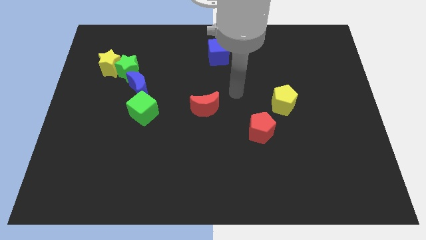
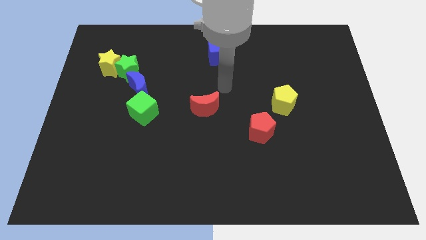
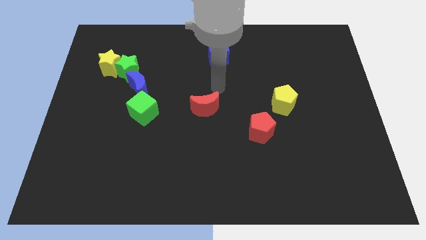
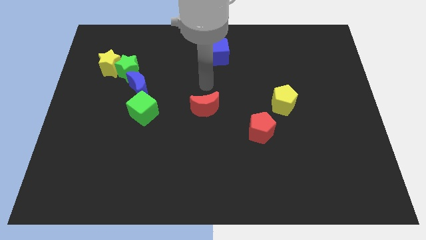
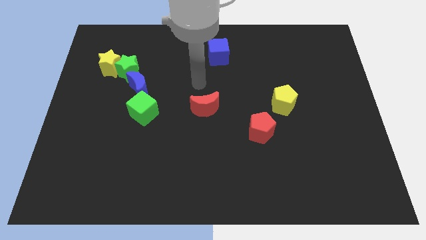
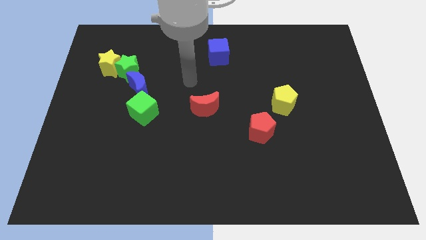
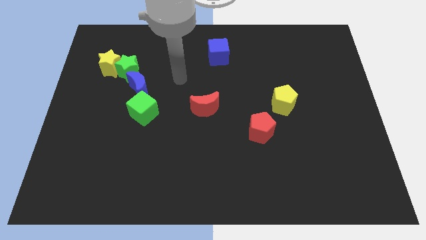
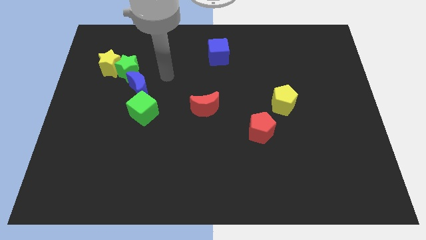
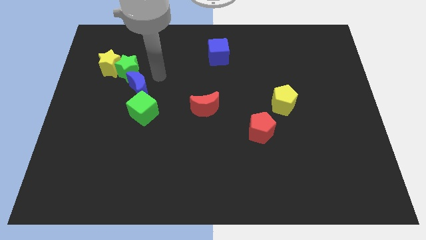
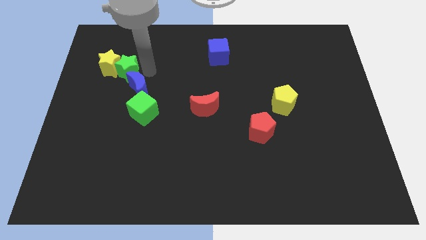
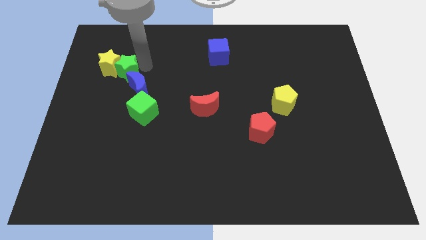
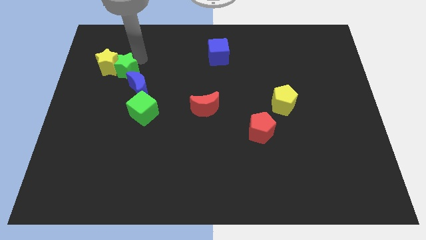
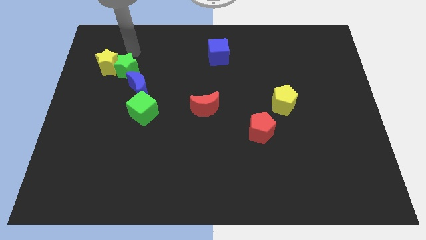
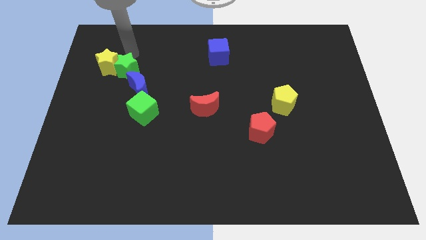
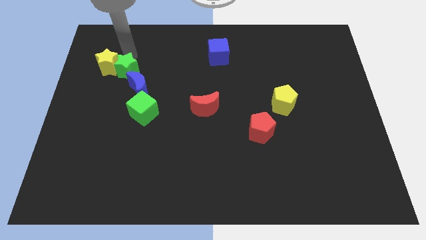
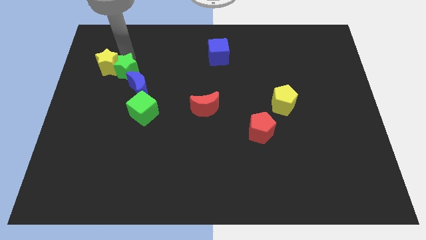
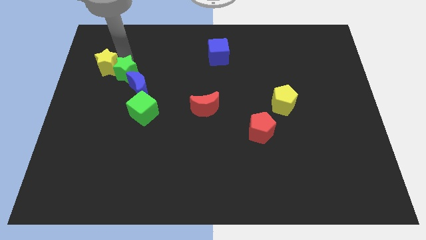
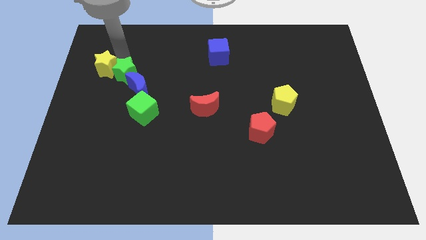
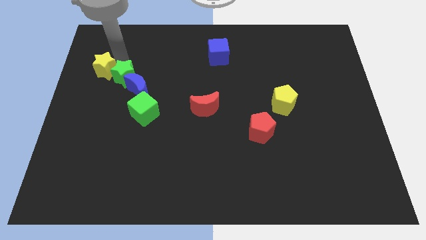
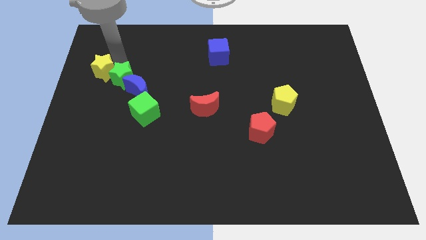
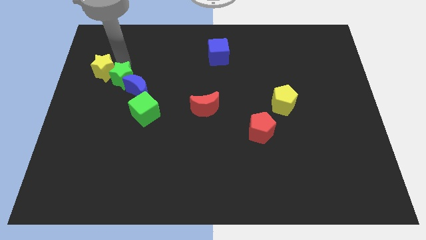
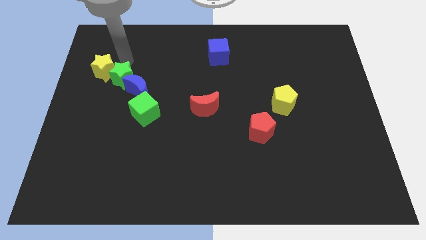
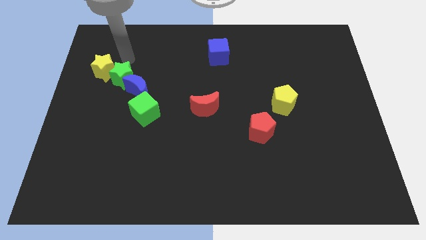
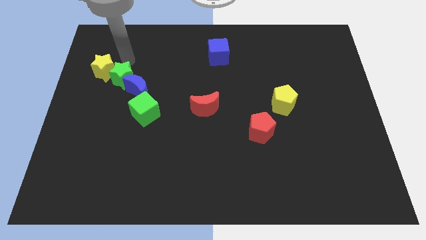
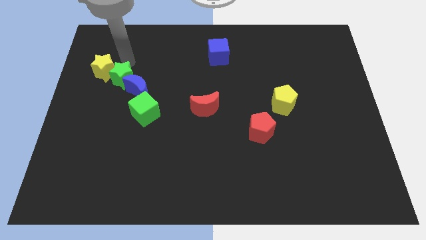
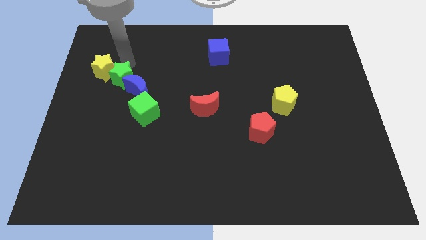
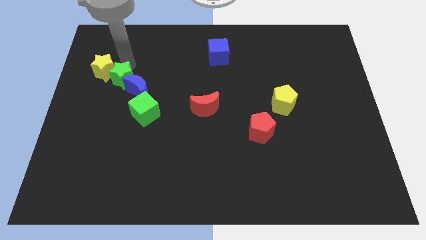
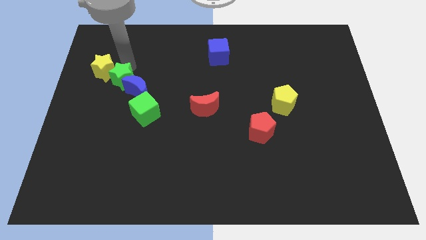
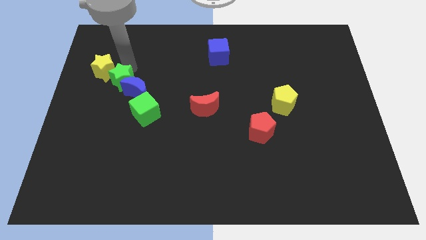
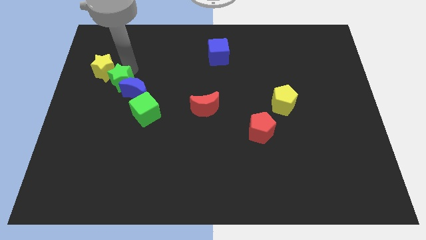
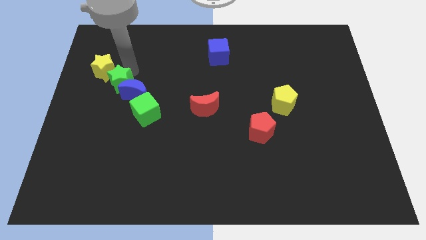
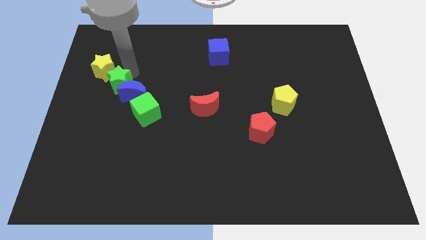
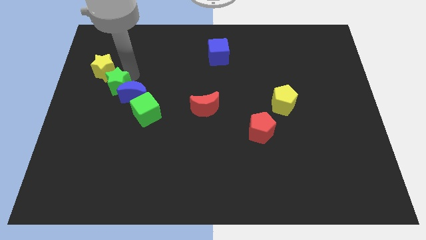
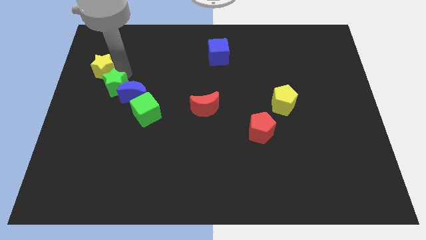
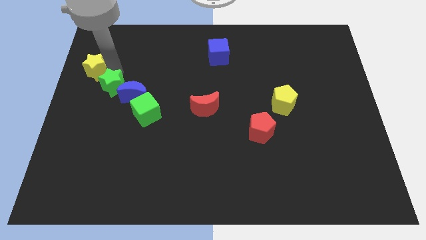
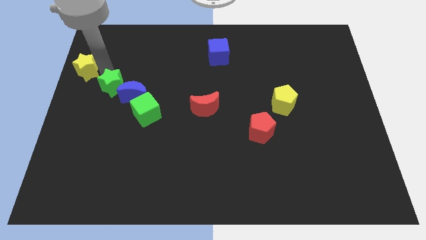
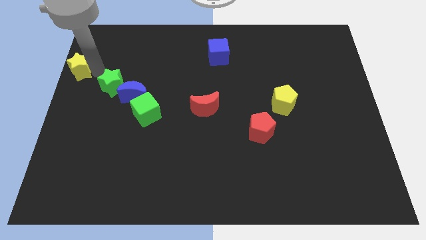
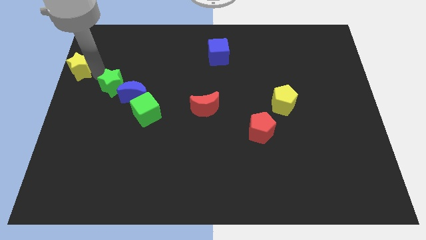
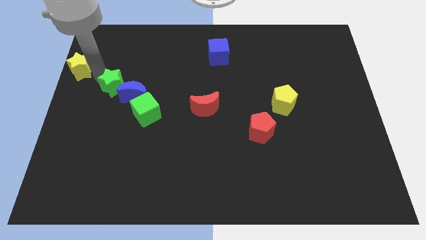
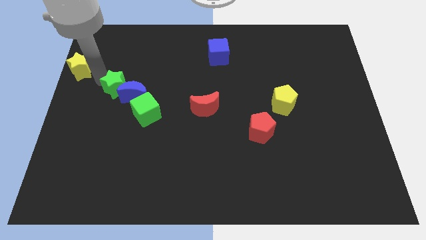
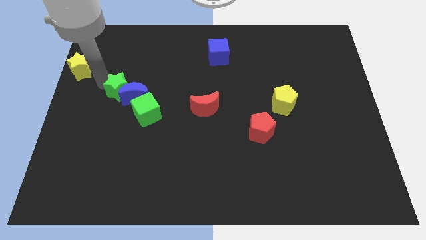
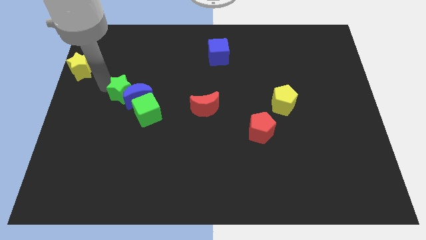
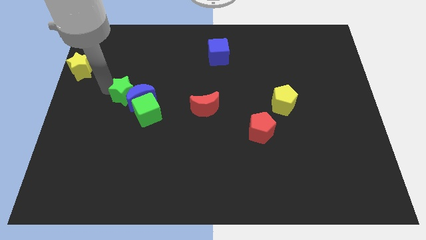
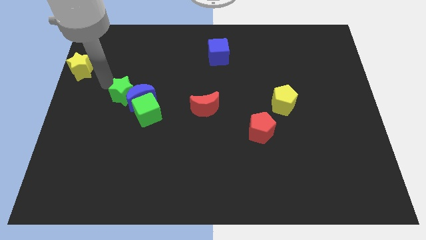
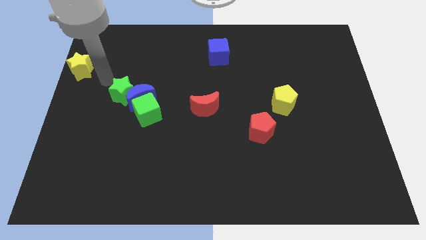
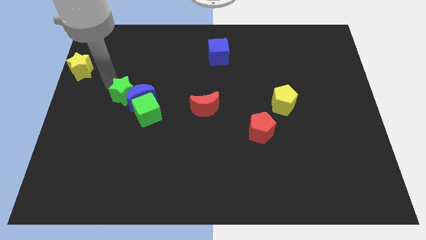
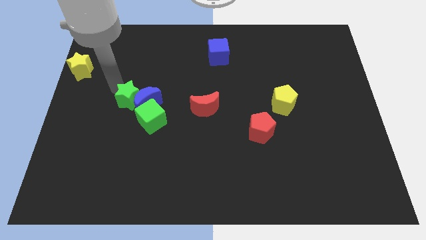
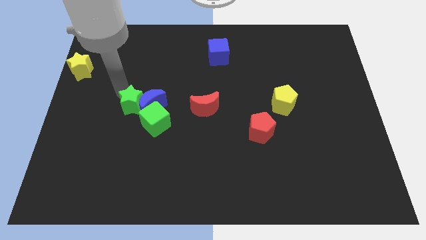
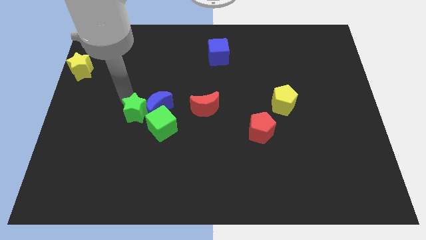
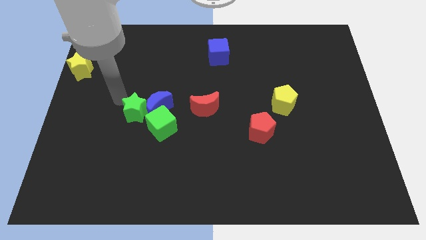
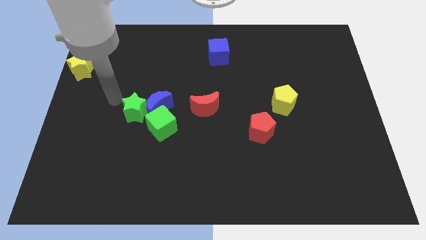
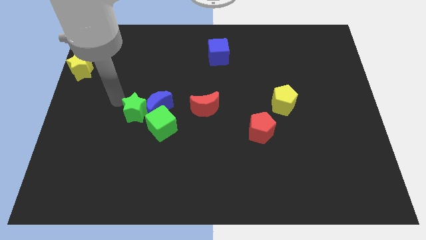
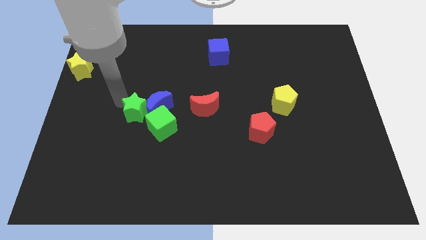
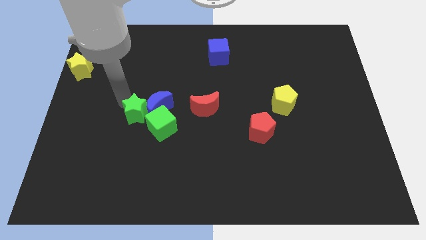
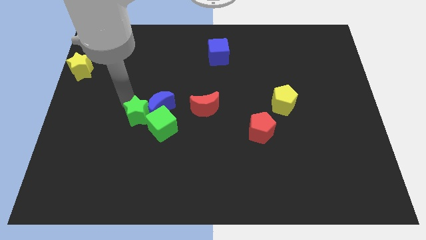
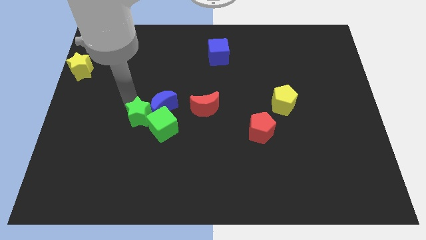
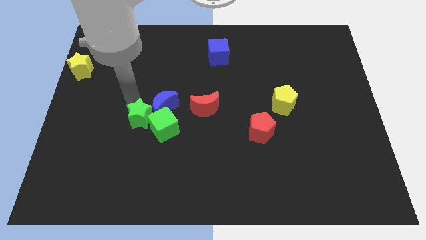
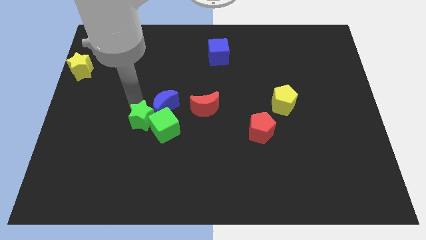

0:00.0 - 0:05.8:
push the green star to the green cube
